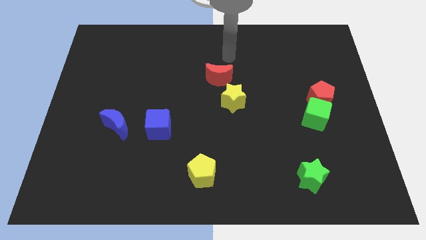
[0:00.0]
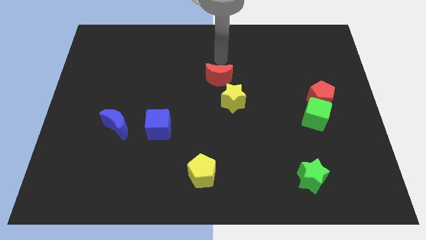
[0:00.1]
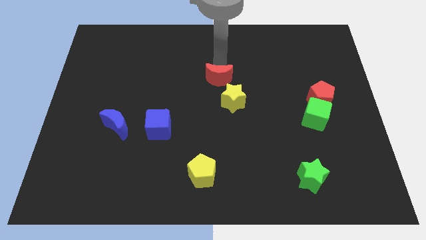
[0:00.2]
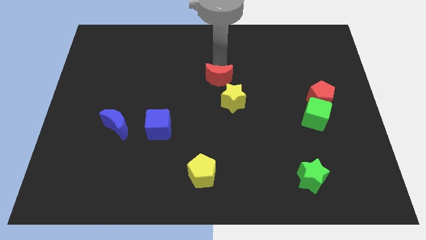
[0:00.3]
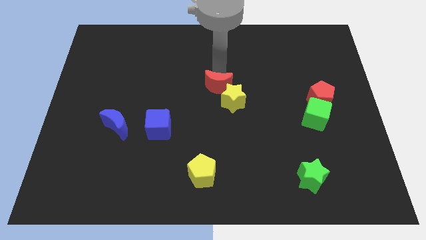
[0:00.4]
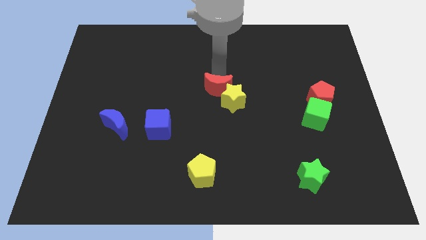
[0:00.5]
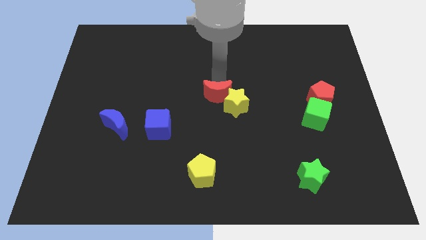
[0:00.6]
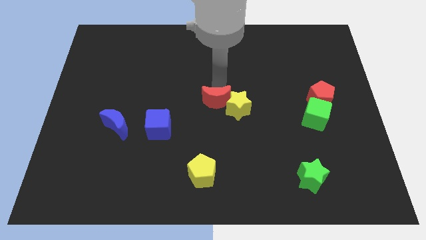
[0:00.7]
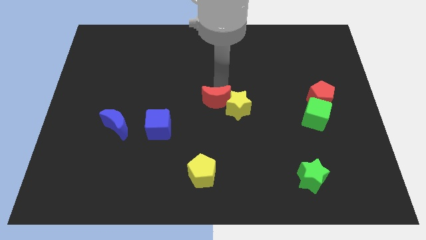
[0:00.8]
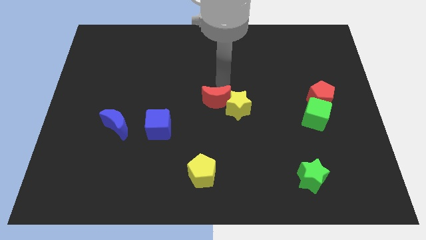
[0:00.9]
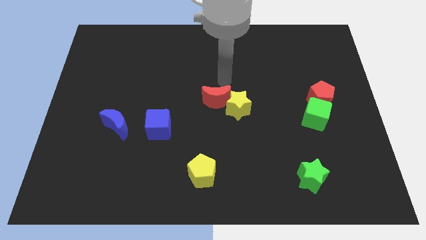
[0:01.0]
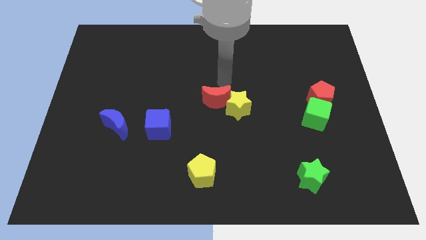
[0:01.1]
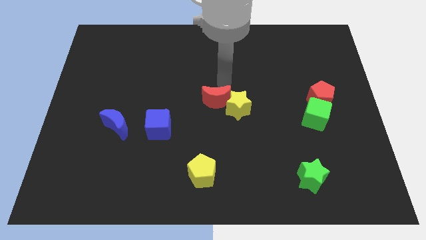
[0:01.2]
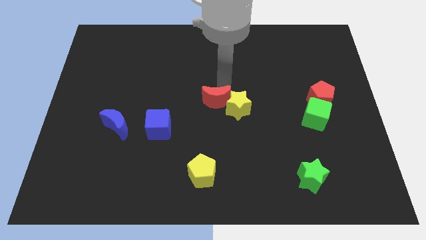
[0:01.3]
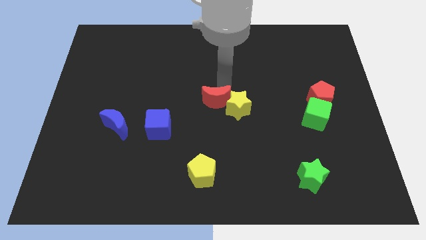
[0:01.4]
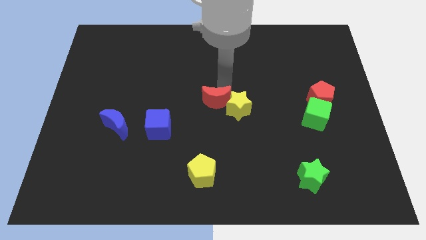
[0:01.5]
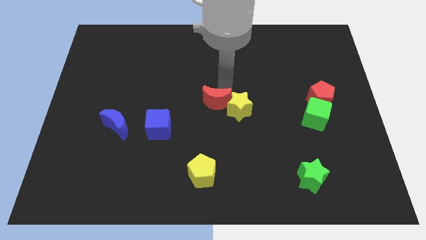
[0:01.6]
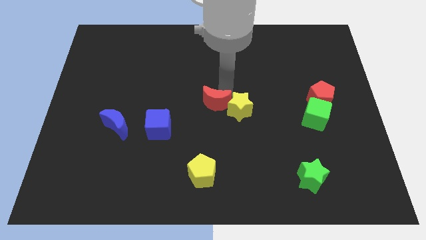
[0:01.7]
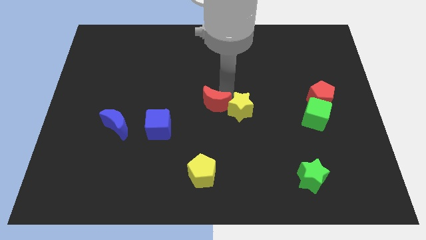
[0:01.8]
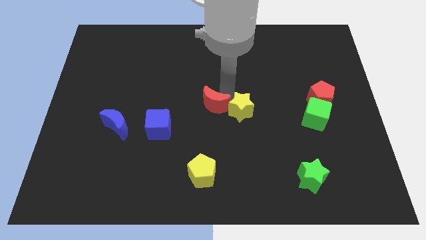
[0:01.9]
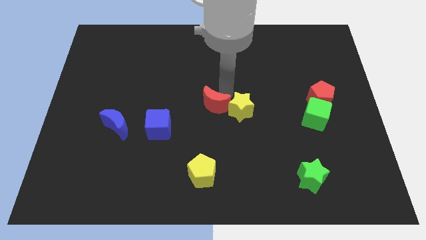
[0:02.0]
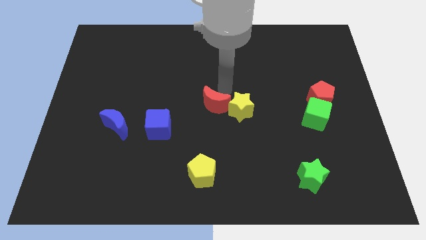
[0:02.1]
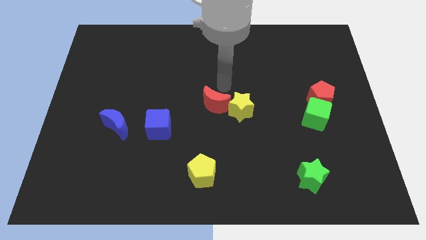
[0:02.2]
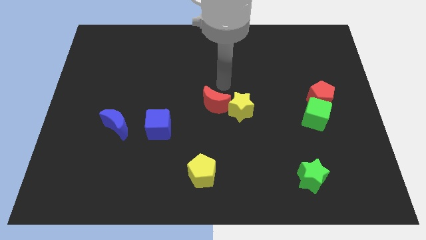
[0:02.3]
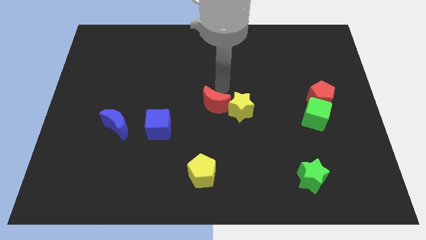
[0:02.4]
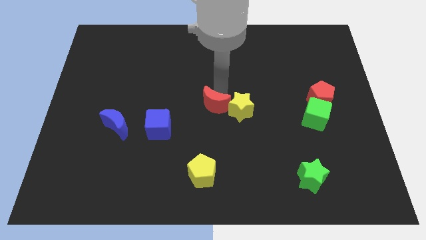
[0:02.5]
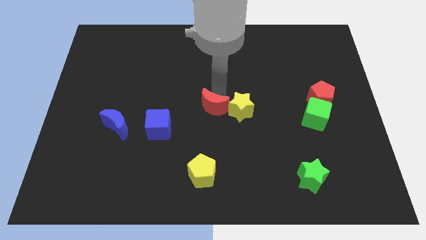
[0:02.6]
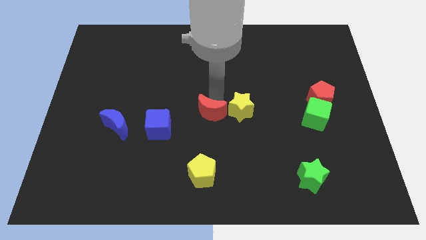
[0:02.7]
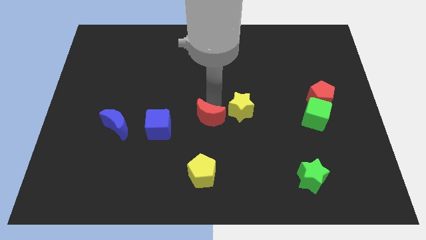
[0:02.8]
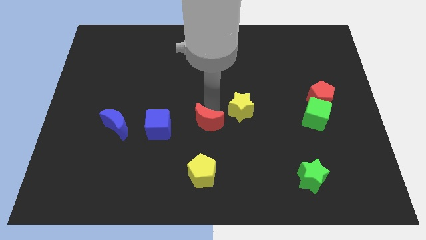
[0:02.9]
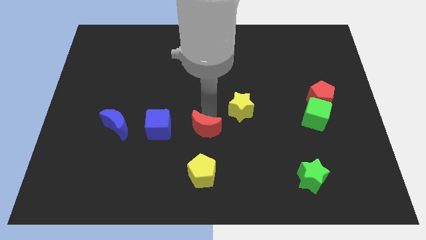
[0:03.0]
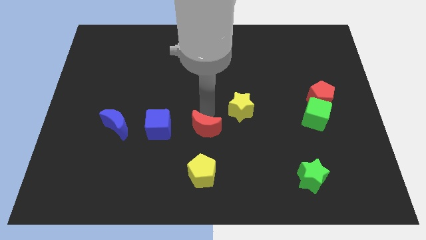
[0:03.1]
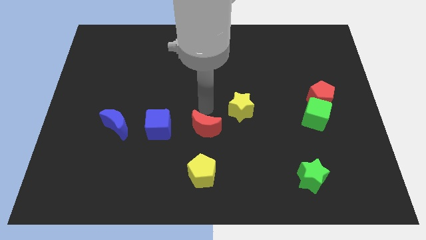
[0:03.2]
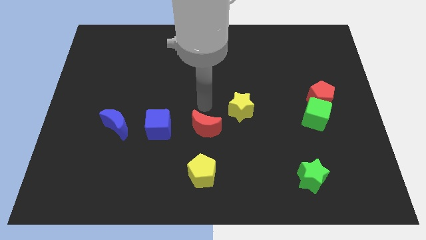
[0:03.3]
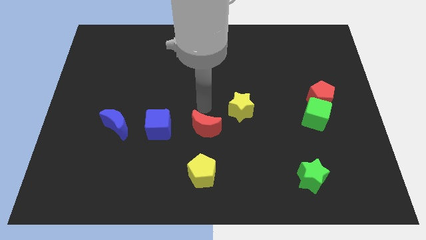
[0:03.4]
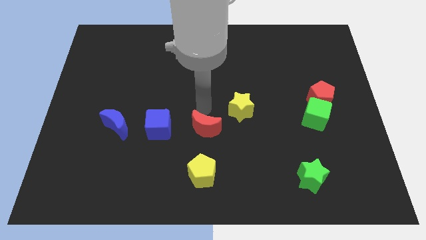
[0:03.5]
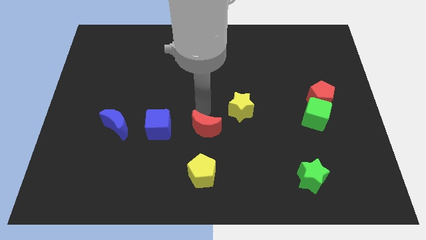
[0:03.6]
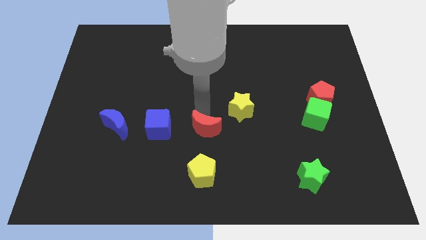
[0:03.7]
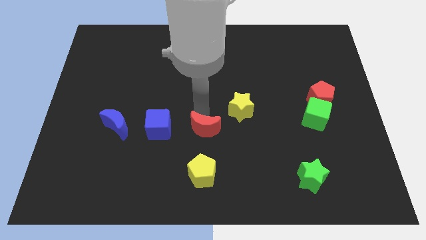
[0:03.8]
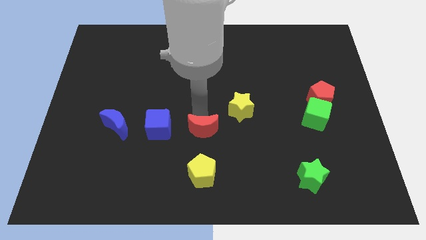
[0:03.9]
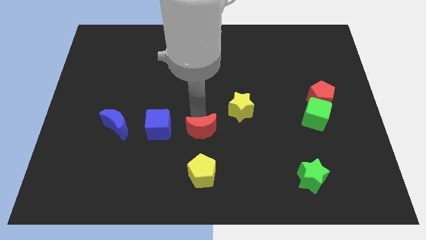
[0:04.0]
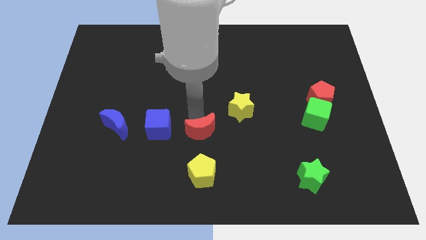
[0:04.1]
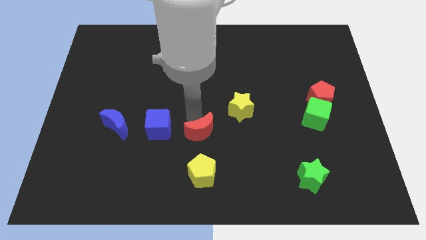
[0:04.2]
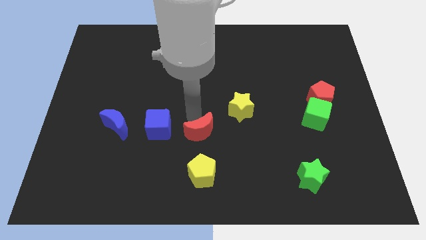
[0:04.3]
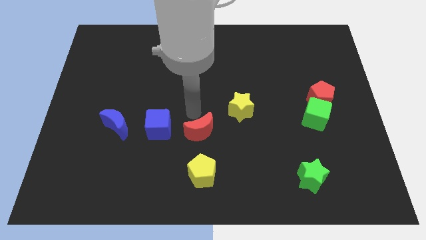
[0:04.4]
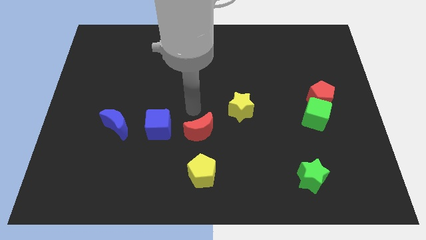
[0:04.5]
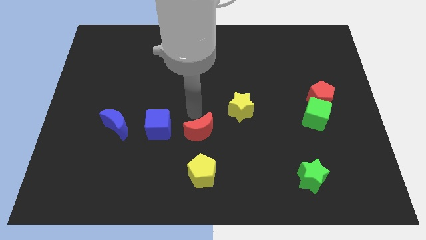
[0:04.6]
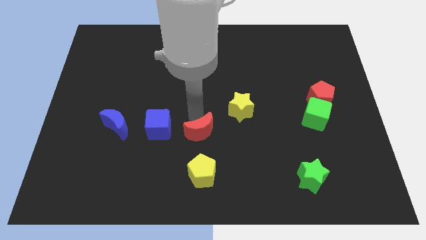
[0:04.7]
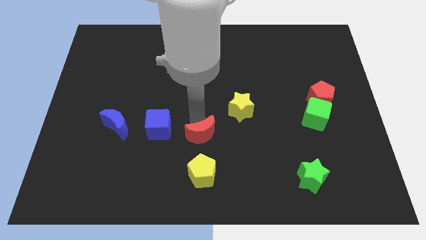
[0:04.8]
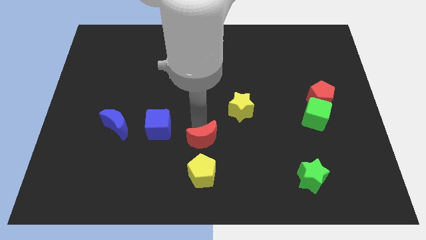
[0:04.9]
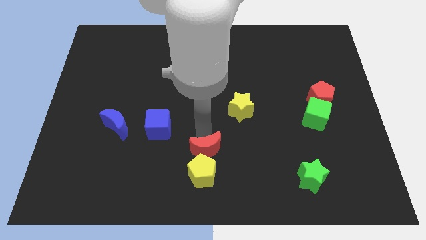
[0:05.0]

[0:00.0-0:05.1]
slide the red moon towards the yellow pentagon

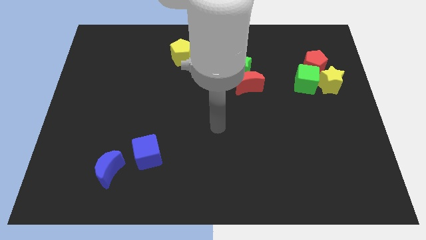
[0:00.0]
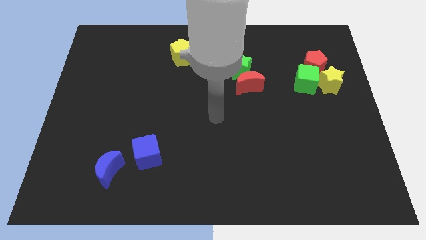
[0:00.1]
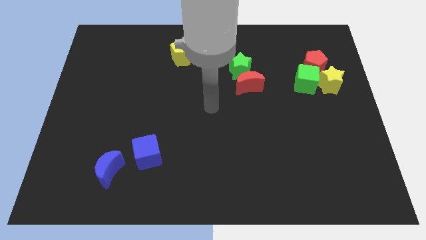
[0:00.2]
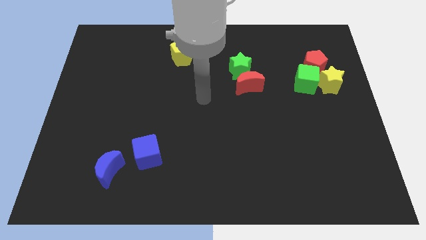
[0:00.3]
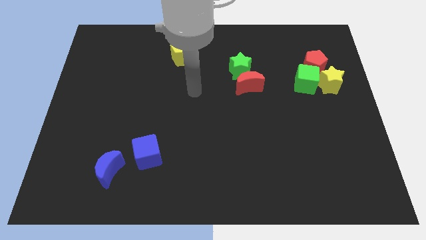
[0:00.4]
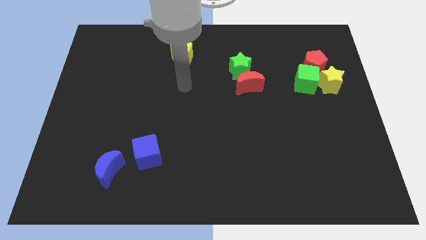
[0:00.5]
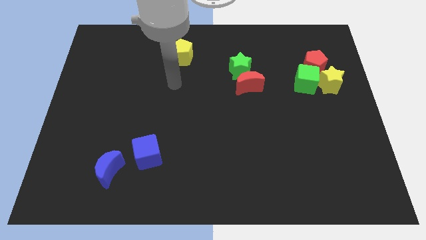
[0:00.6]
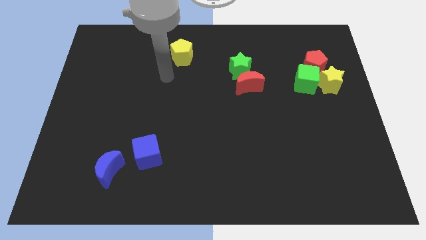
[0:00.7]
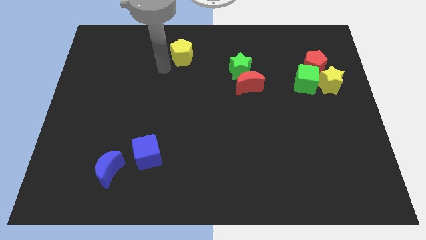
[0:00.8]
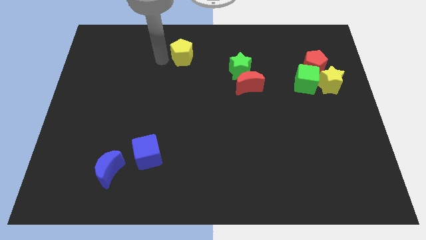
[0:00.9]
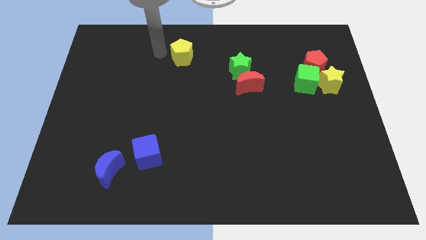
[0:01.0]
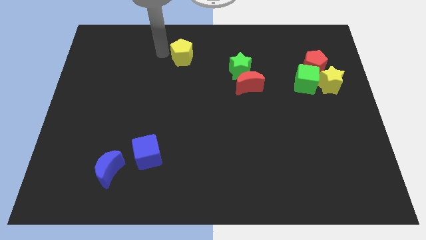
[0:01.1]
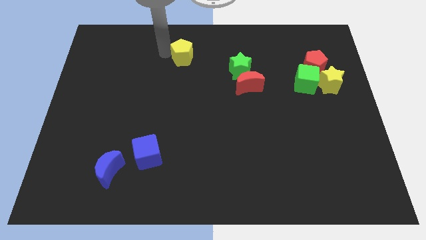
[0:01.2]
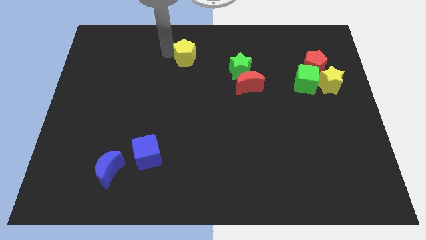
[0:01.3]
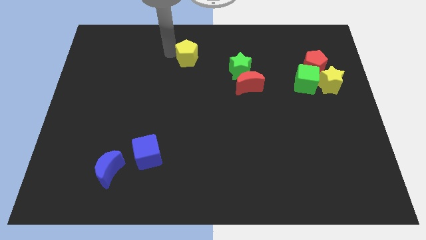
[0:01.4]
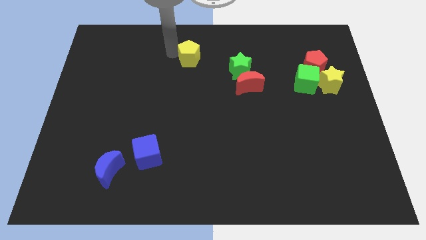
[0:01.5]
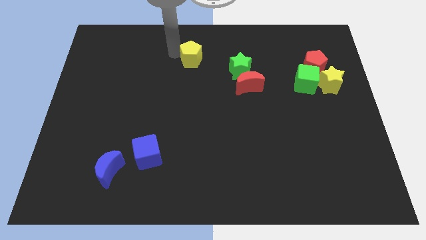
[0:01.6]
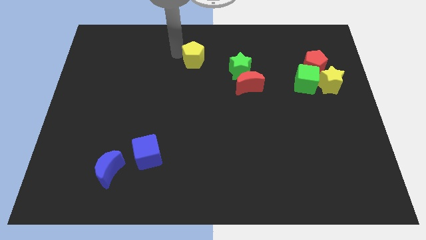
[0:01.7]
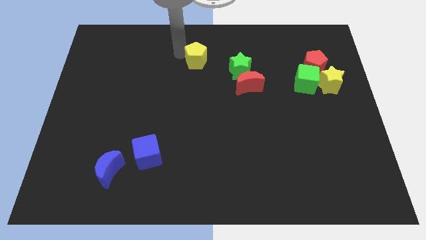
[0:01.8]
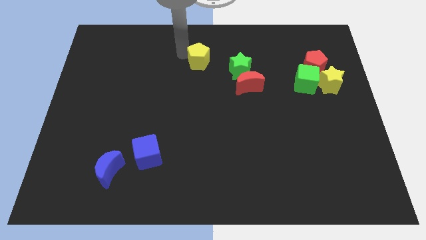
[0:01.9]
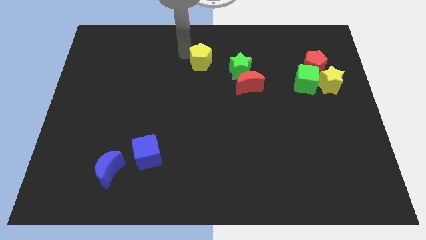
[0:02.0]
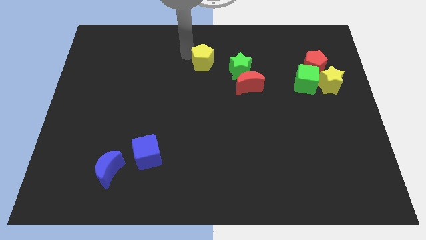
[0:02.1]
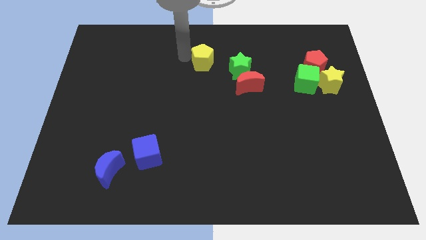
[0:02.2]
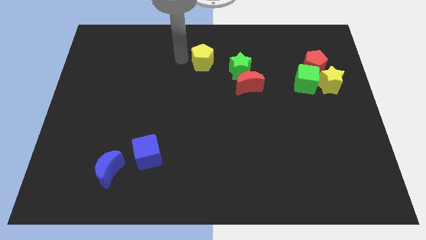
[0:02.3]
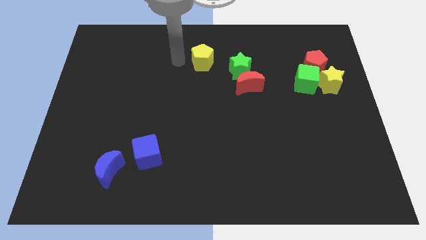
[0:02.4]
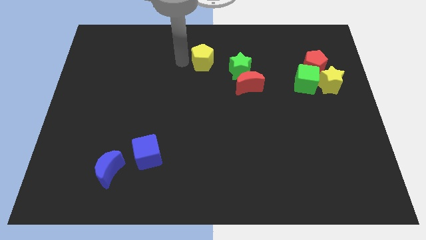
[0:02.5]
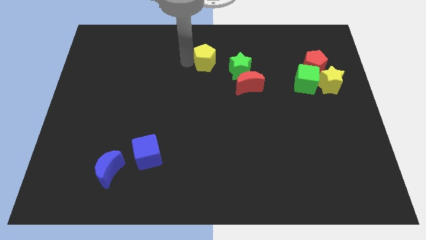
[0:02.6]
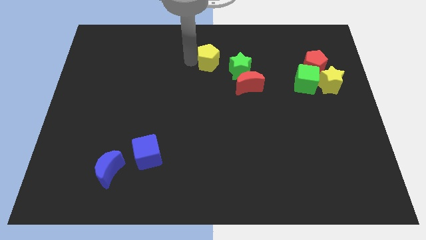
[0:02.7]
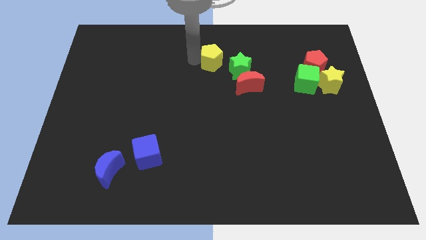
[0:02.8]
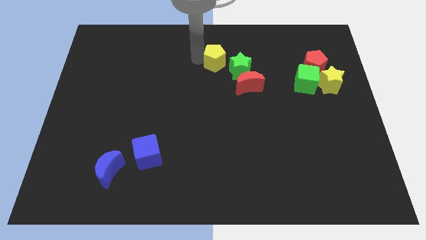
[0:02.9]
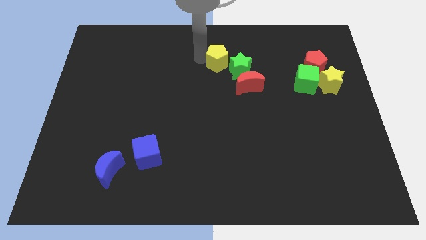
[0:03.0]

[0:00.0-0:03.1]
push the yellow pentagon to the green star
